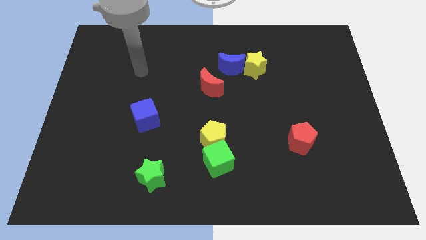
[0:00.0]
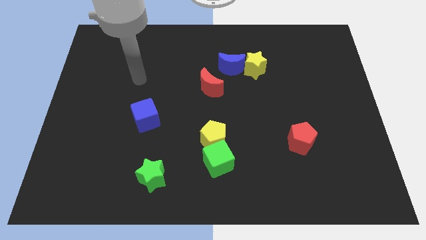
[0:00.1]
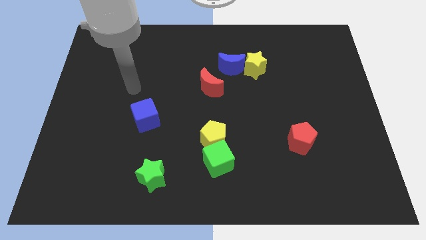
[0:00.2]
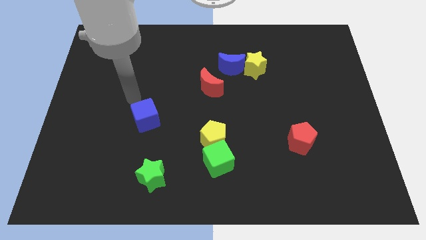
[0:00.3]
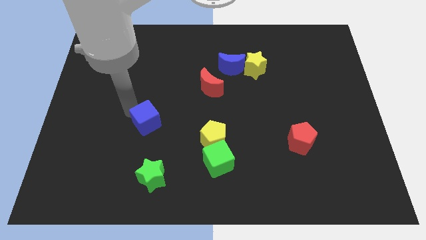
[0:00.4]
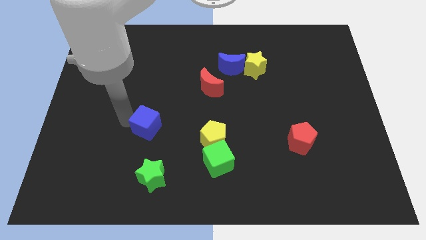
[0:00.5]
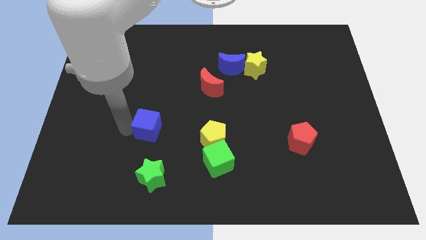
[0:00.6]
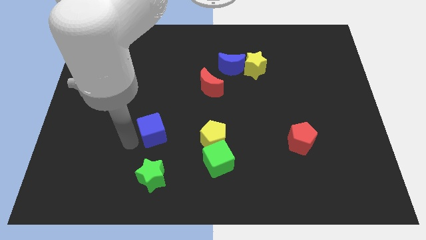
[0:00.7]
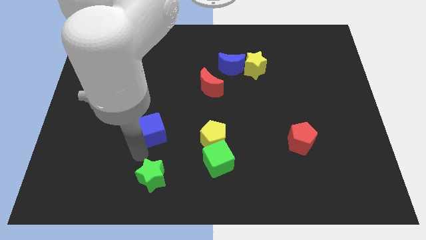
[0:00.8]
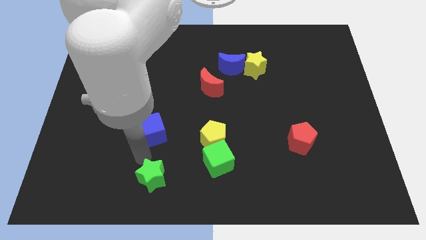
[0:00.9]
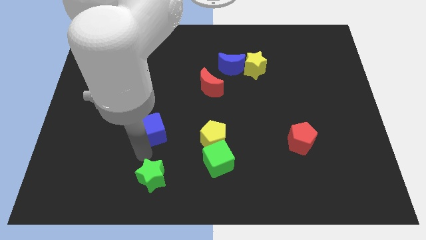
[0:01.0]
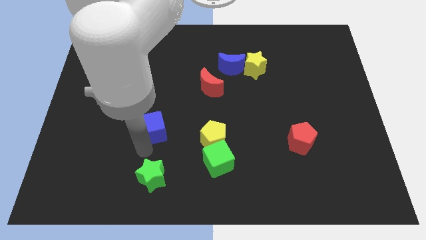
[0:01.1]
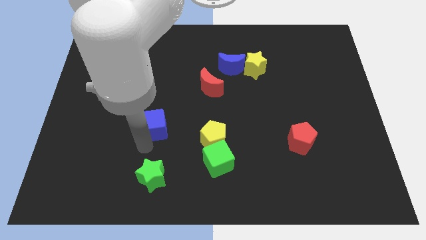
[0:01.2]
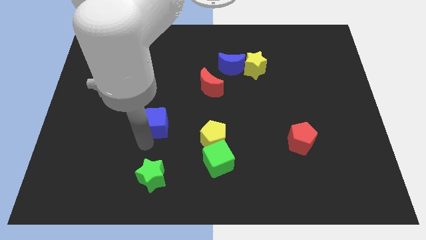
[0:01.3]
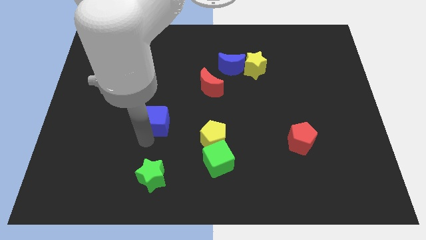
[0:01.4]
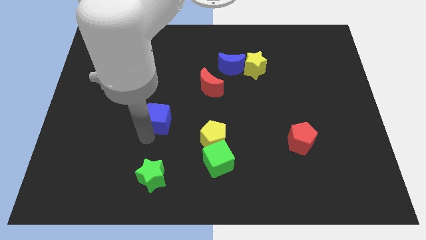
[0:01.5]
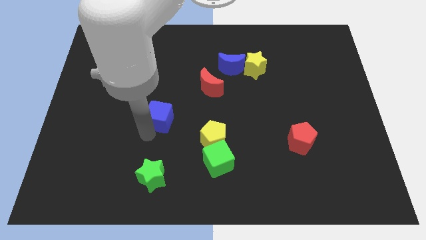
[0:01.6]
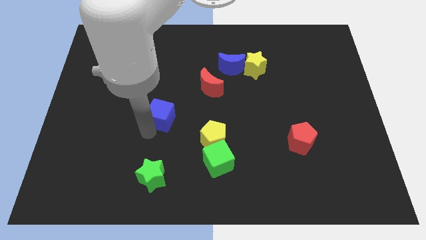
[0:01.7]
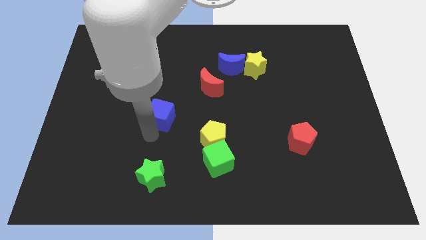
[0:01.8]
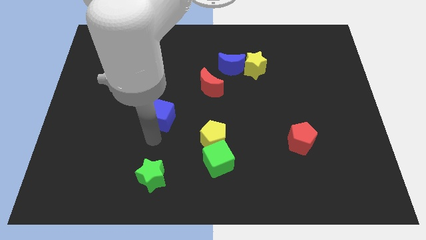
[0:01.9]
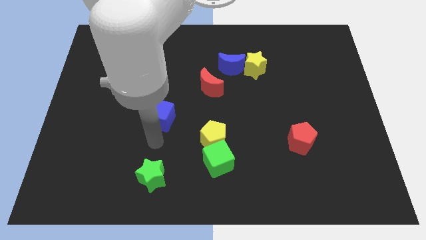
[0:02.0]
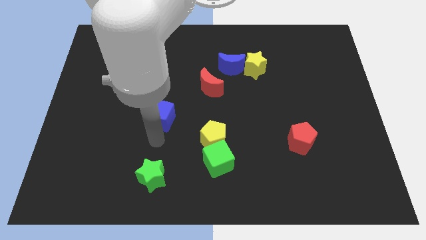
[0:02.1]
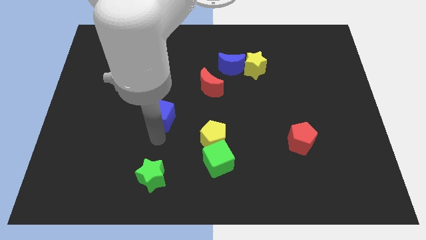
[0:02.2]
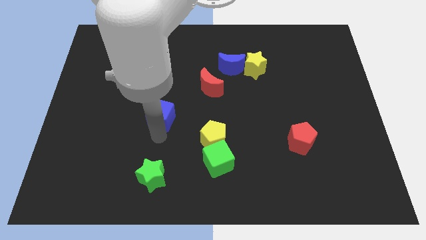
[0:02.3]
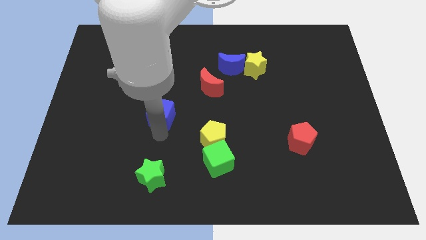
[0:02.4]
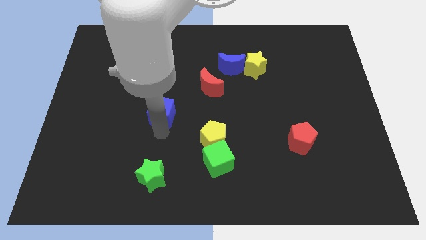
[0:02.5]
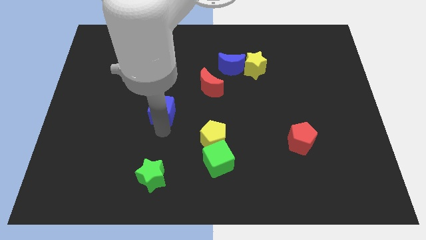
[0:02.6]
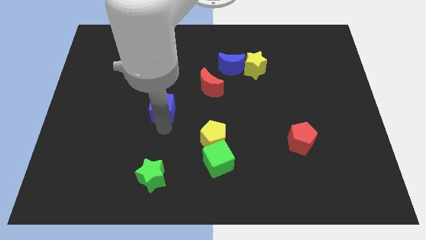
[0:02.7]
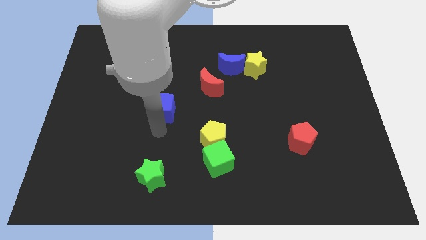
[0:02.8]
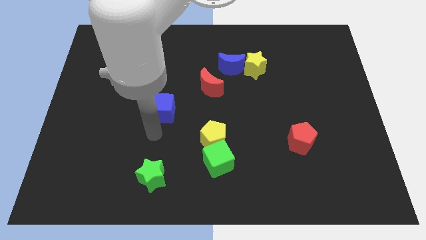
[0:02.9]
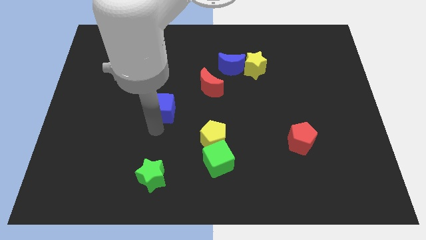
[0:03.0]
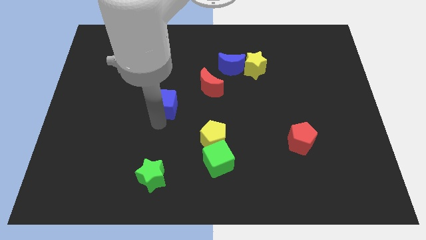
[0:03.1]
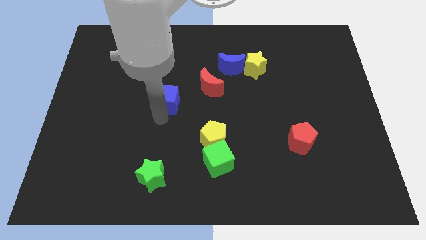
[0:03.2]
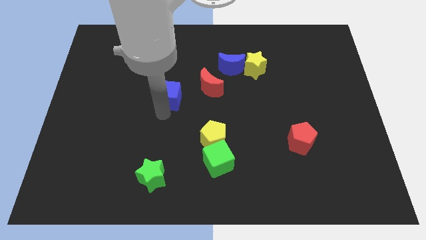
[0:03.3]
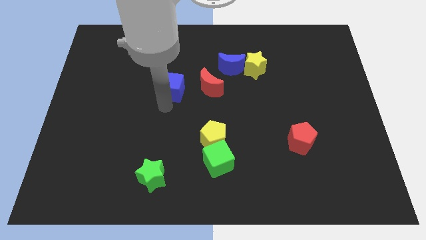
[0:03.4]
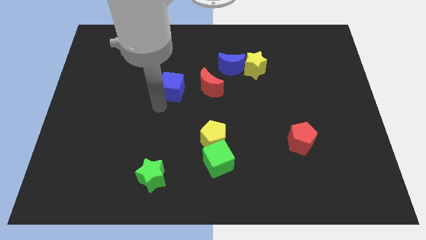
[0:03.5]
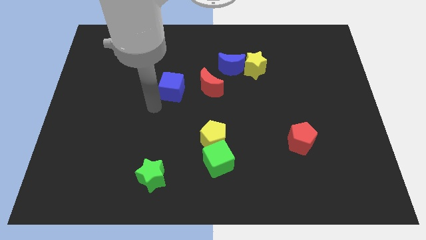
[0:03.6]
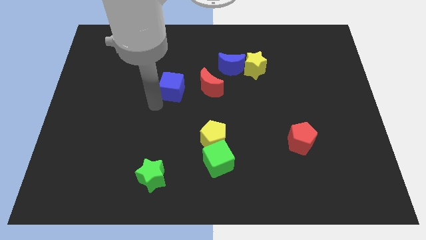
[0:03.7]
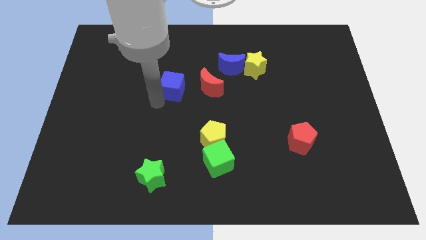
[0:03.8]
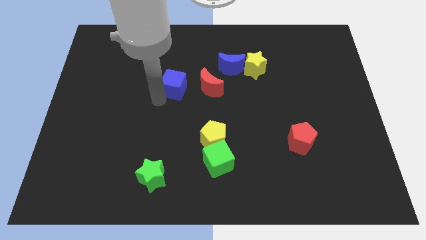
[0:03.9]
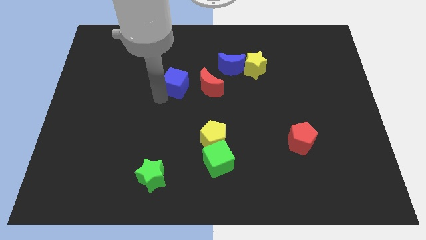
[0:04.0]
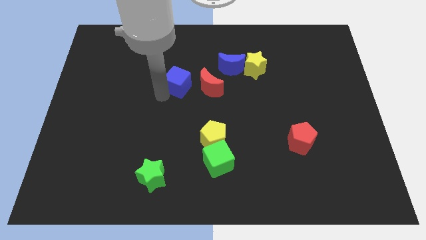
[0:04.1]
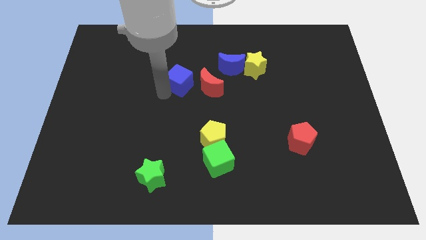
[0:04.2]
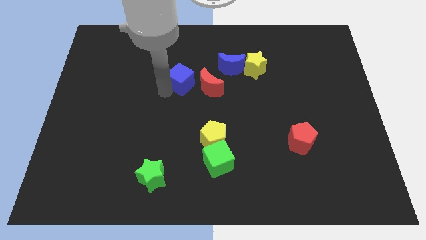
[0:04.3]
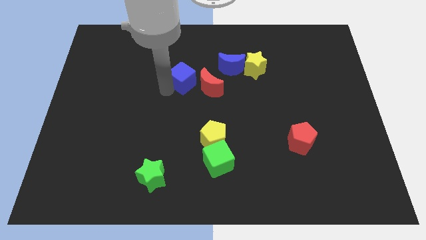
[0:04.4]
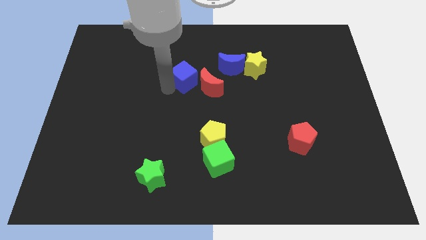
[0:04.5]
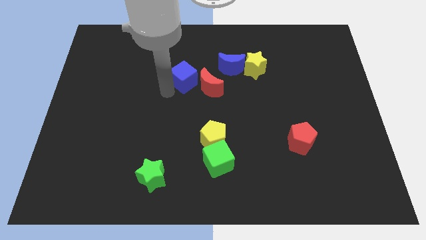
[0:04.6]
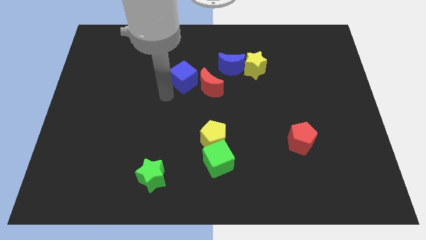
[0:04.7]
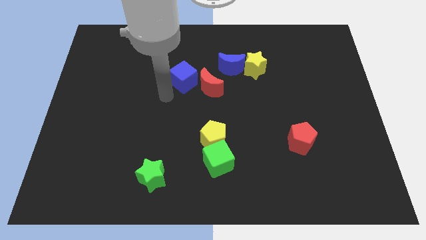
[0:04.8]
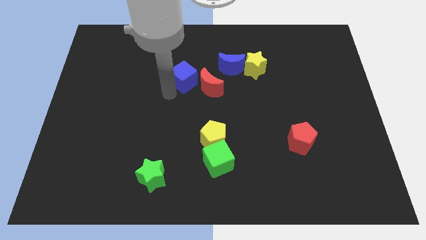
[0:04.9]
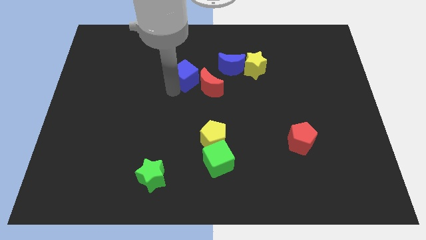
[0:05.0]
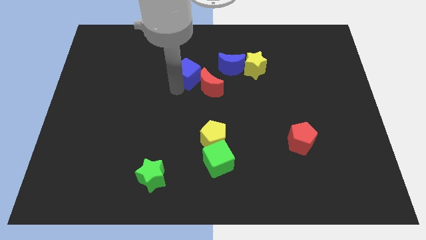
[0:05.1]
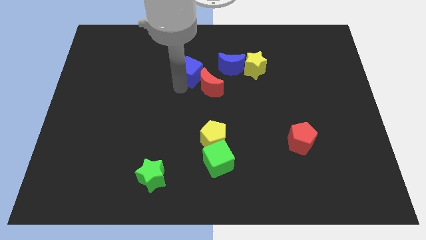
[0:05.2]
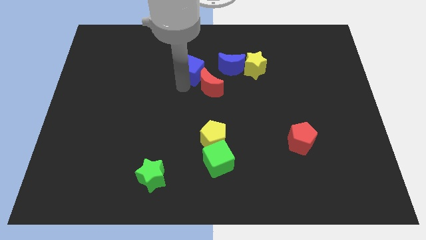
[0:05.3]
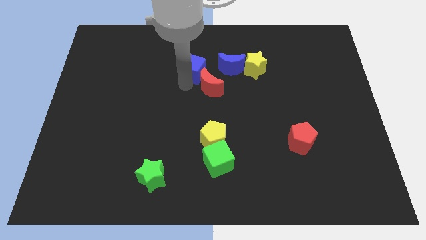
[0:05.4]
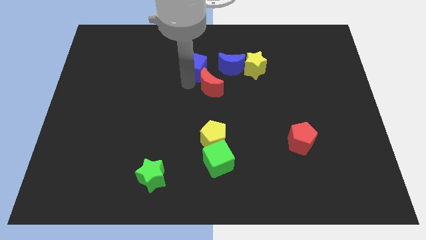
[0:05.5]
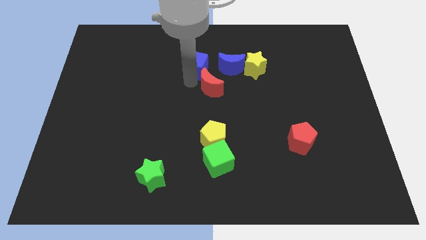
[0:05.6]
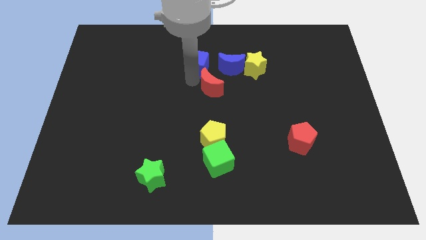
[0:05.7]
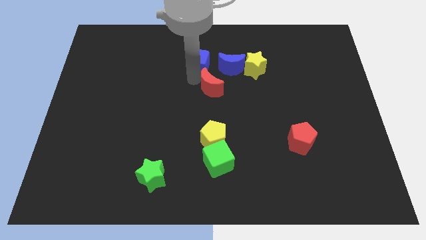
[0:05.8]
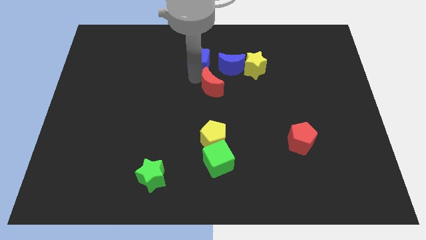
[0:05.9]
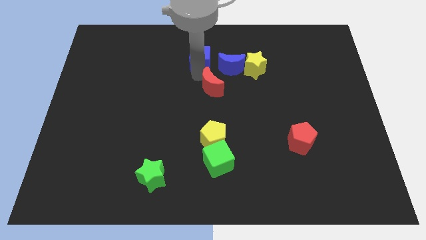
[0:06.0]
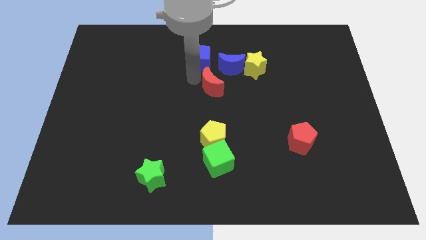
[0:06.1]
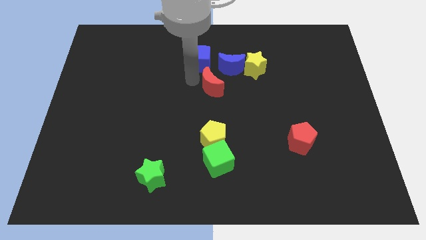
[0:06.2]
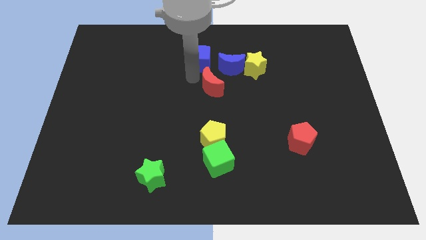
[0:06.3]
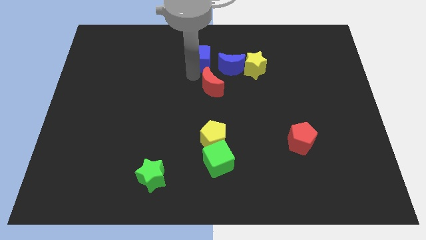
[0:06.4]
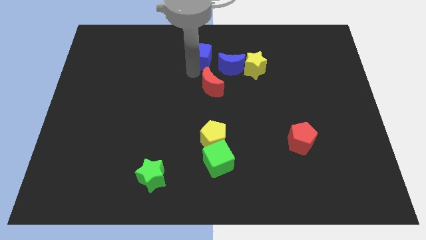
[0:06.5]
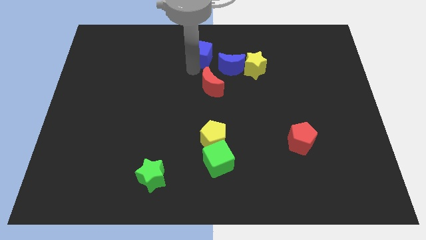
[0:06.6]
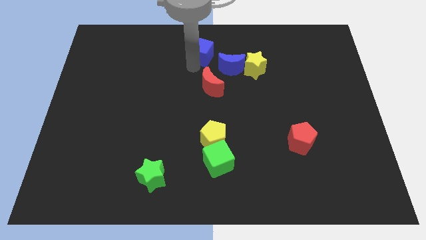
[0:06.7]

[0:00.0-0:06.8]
slide the blue cube to the towards your base

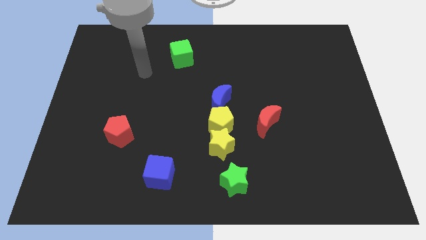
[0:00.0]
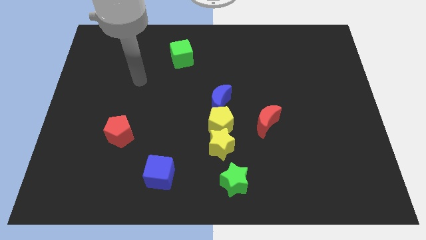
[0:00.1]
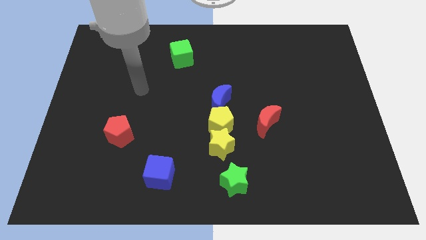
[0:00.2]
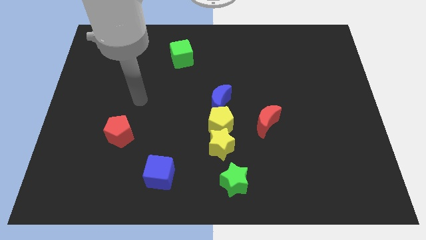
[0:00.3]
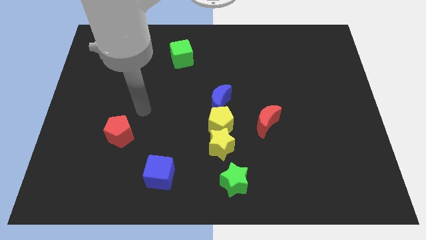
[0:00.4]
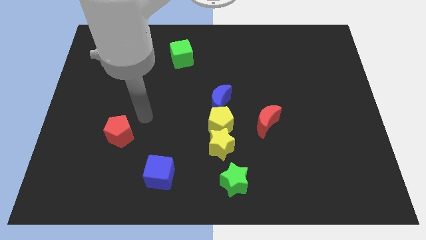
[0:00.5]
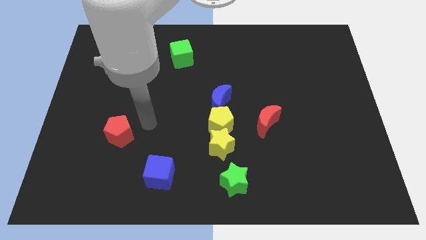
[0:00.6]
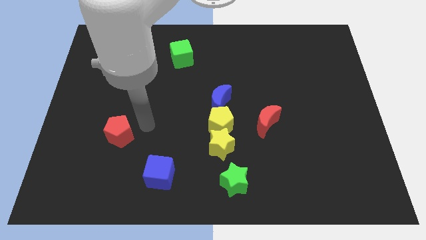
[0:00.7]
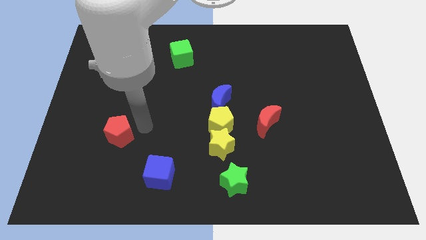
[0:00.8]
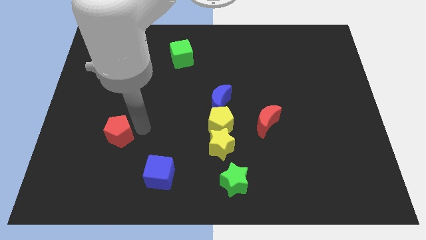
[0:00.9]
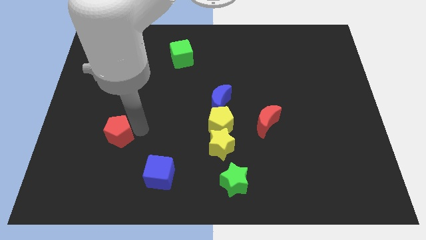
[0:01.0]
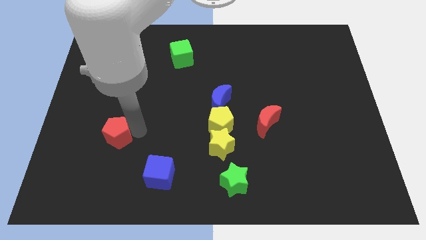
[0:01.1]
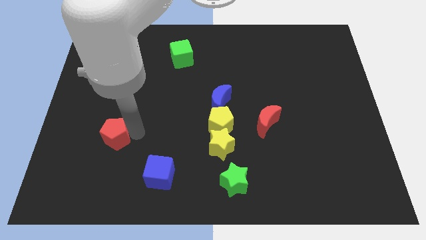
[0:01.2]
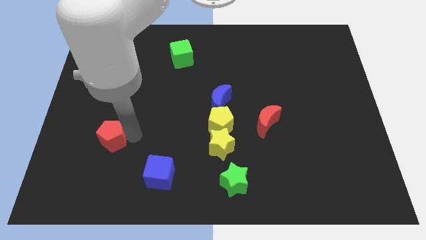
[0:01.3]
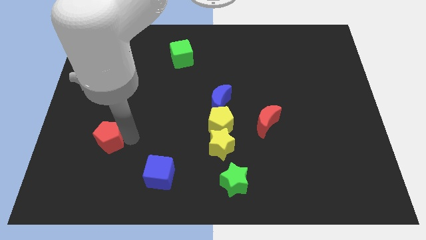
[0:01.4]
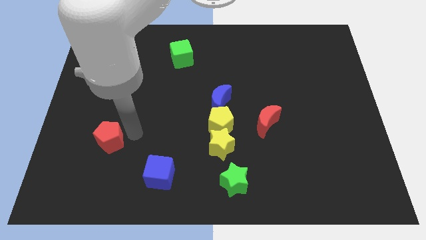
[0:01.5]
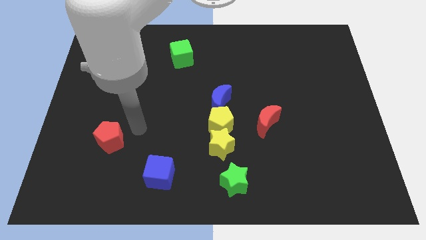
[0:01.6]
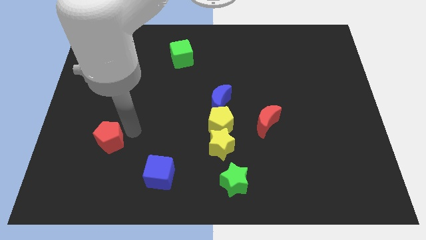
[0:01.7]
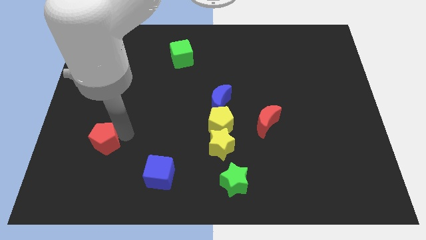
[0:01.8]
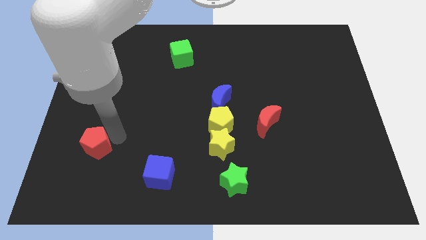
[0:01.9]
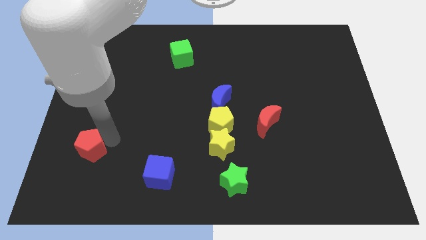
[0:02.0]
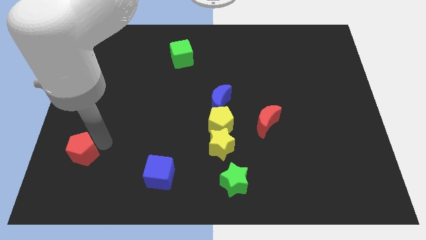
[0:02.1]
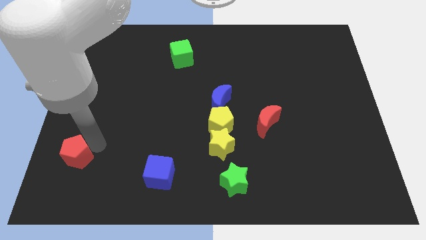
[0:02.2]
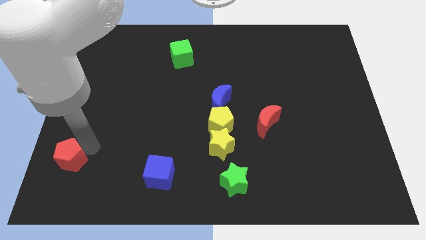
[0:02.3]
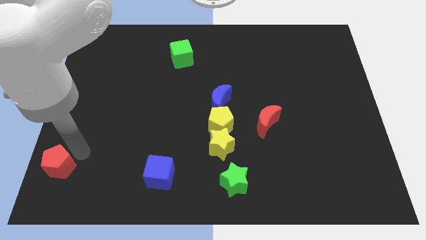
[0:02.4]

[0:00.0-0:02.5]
move the red pentagon to the bottom left
